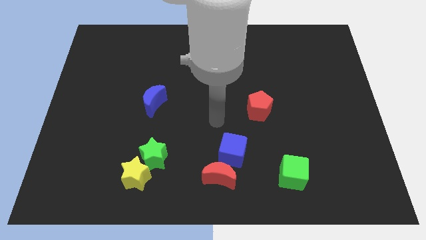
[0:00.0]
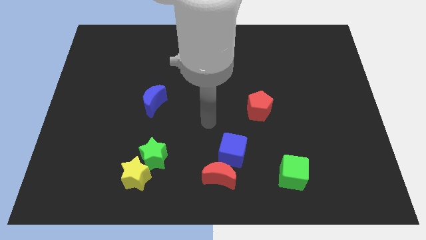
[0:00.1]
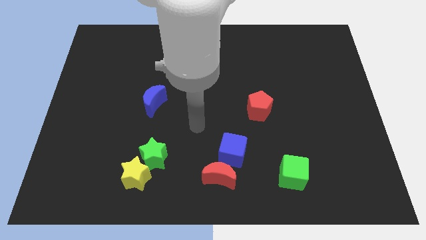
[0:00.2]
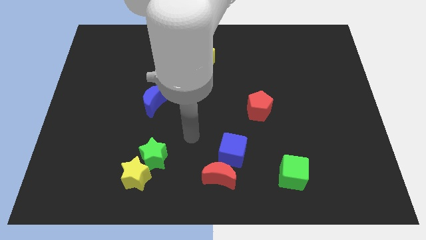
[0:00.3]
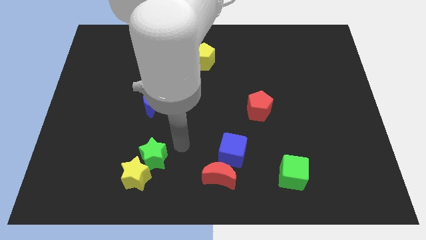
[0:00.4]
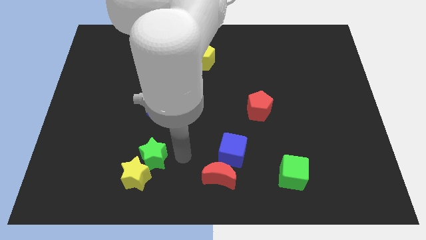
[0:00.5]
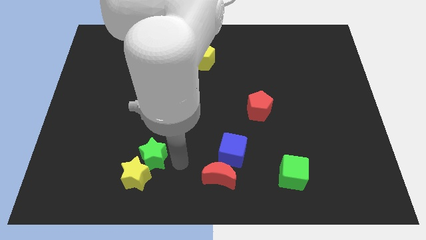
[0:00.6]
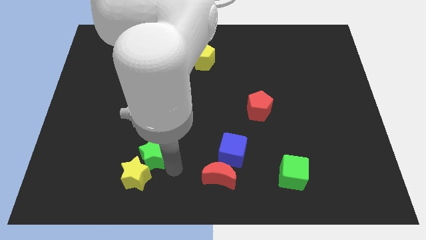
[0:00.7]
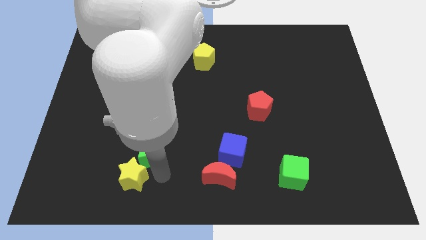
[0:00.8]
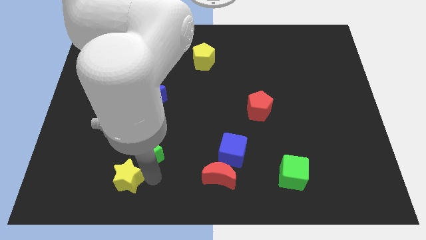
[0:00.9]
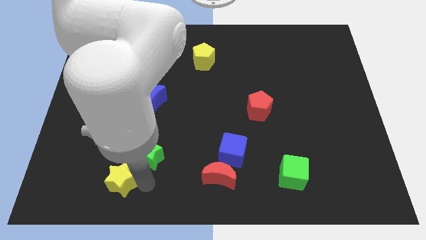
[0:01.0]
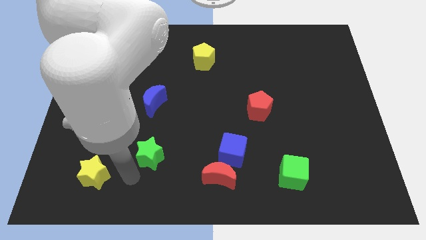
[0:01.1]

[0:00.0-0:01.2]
pull the green star apart from the yellow star

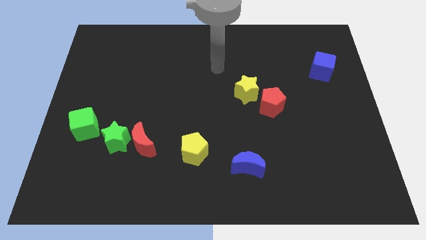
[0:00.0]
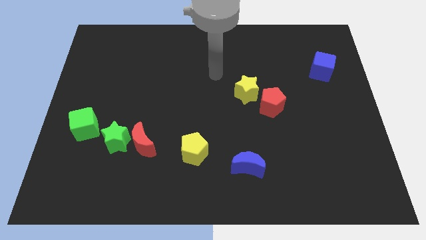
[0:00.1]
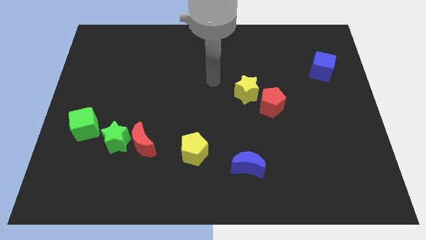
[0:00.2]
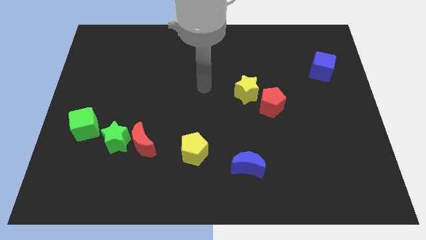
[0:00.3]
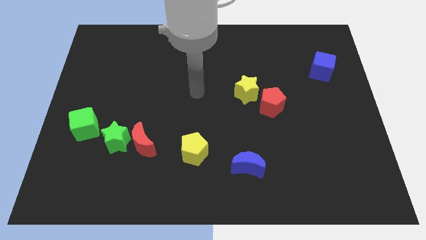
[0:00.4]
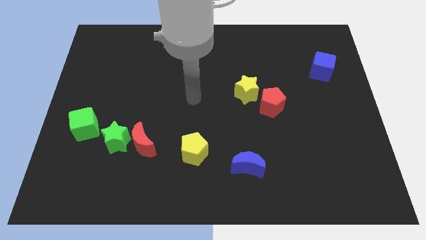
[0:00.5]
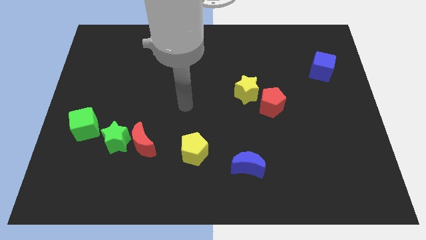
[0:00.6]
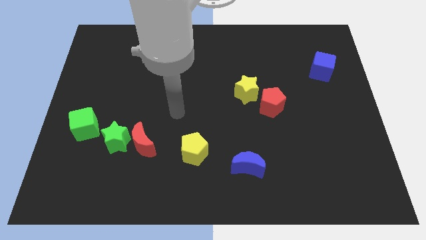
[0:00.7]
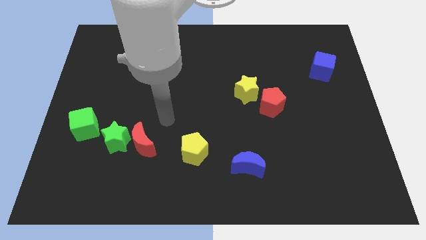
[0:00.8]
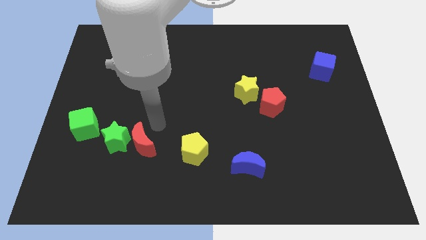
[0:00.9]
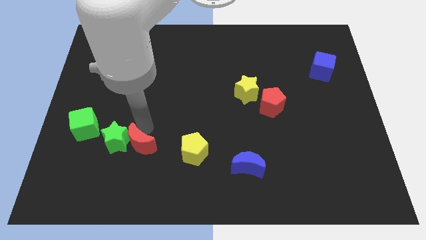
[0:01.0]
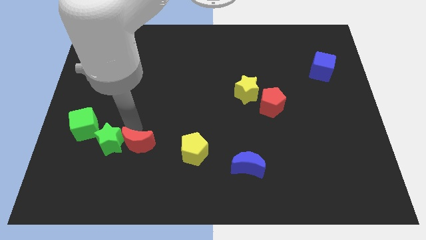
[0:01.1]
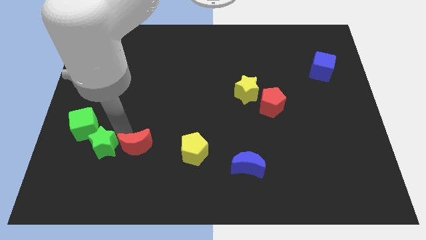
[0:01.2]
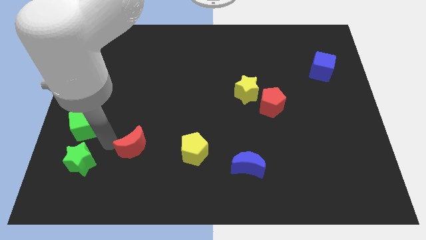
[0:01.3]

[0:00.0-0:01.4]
separate the red moon from the green star

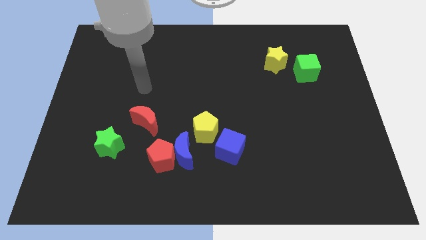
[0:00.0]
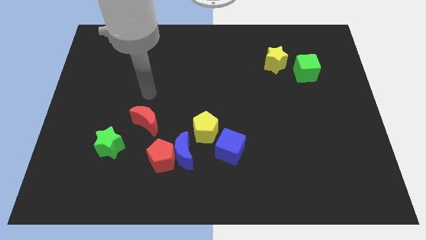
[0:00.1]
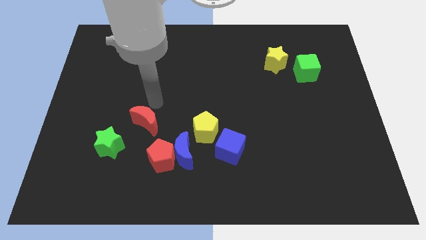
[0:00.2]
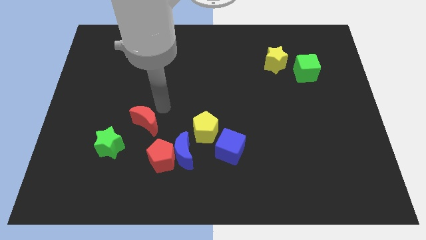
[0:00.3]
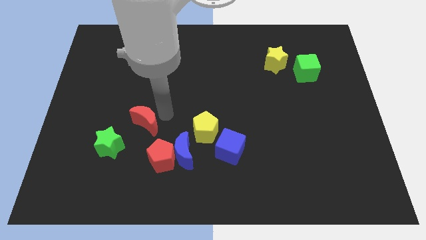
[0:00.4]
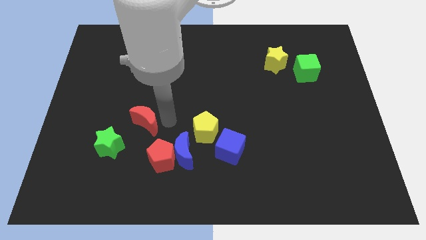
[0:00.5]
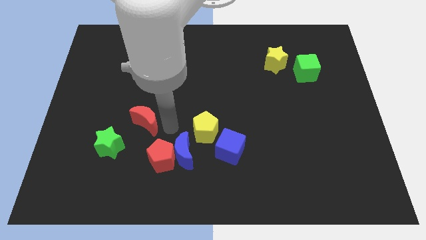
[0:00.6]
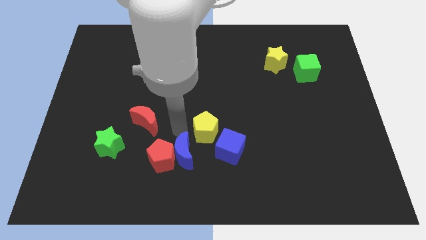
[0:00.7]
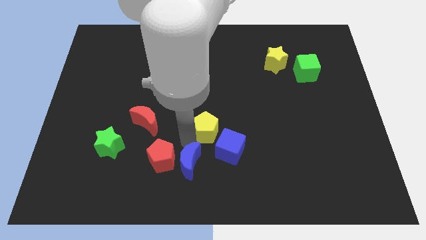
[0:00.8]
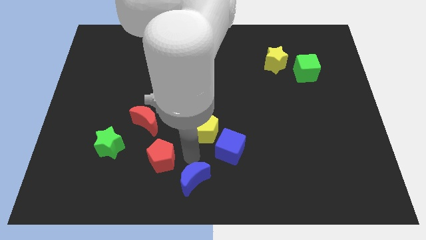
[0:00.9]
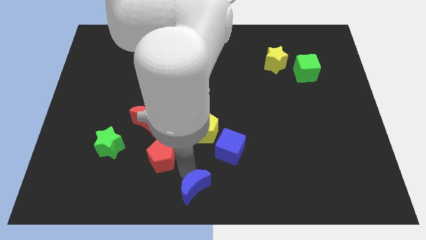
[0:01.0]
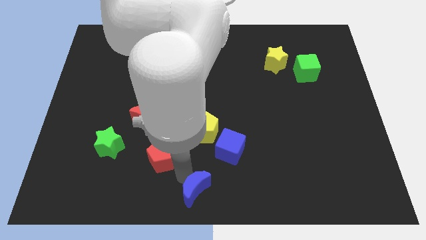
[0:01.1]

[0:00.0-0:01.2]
separate the red pentagon from the blue moon

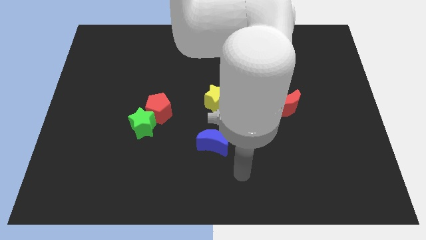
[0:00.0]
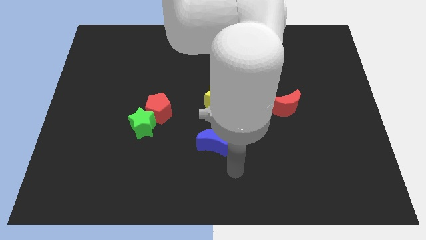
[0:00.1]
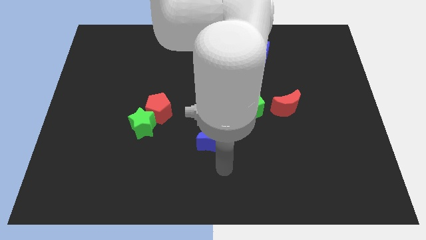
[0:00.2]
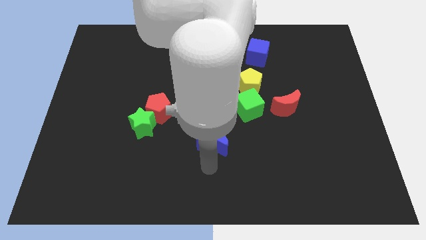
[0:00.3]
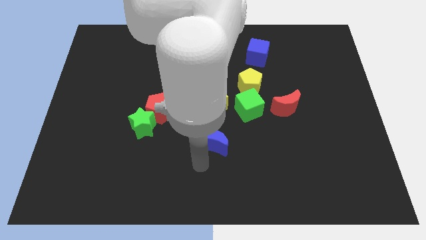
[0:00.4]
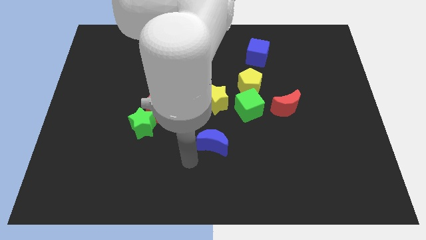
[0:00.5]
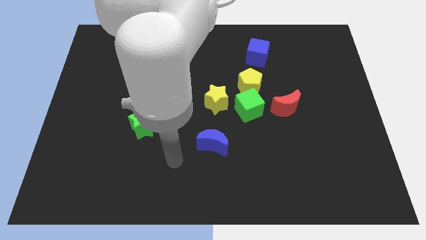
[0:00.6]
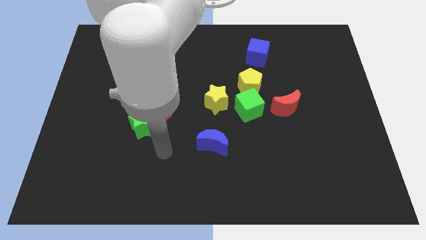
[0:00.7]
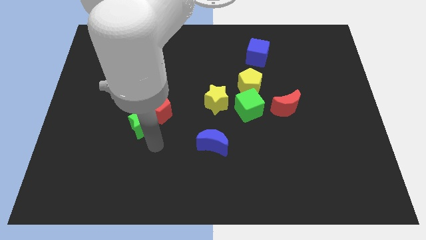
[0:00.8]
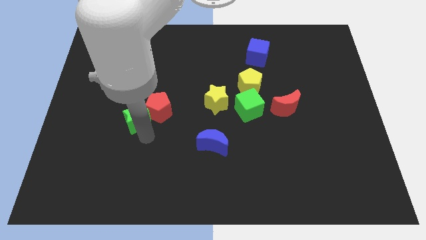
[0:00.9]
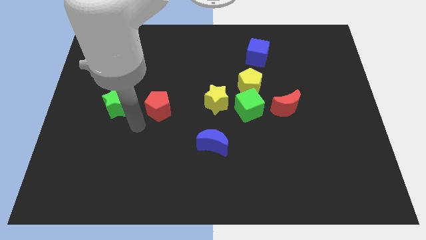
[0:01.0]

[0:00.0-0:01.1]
pull the red pentagon apart from the green star

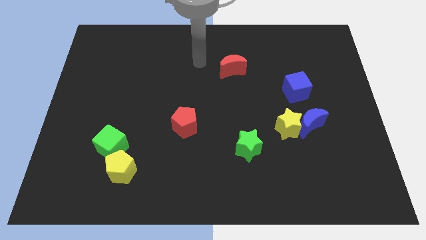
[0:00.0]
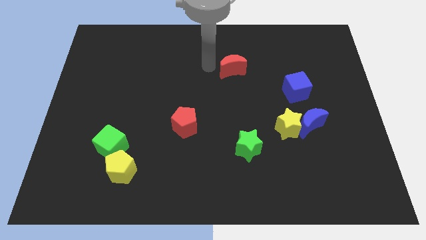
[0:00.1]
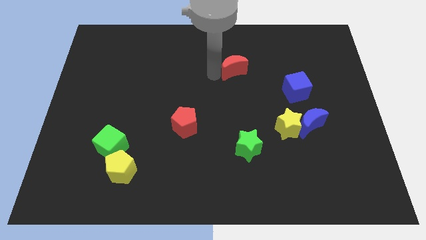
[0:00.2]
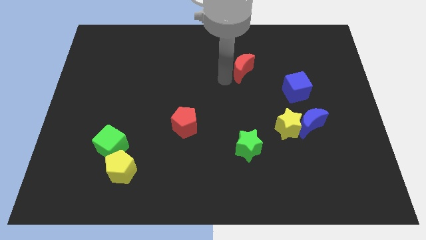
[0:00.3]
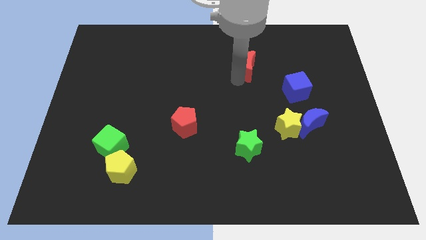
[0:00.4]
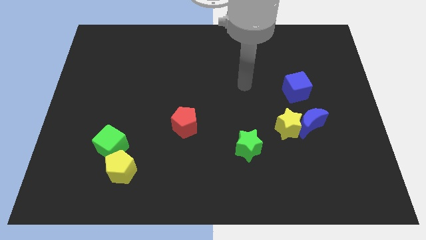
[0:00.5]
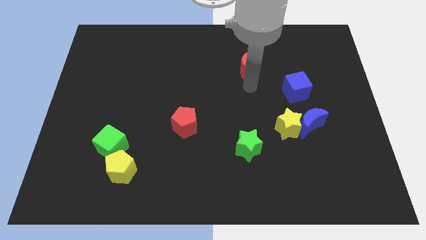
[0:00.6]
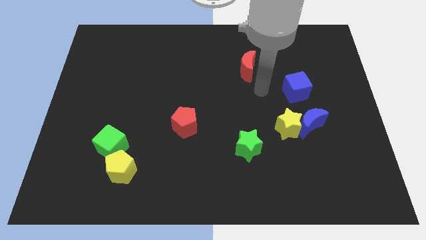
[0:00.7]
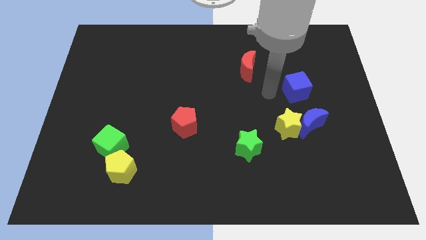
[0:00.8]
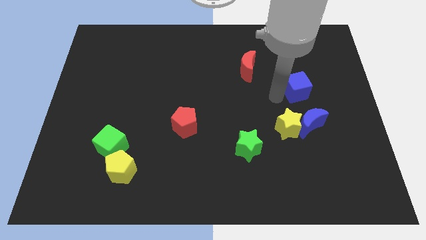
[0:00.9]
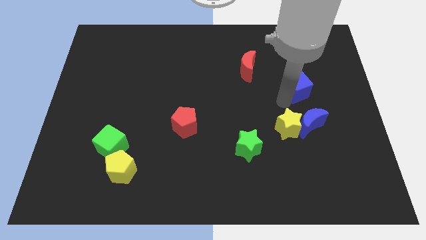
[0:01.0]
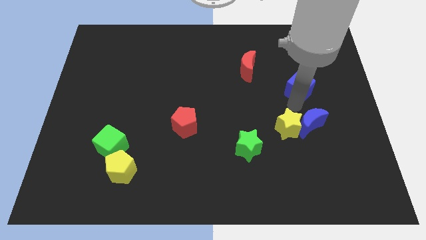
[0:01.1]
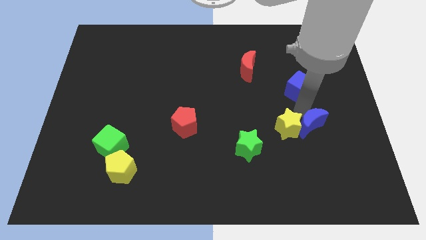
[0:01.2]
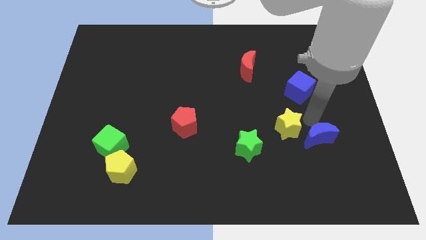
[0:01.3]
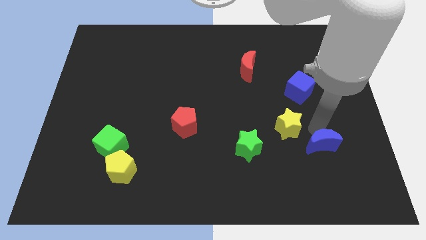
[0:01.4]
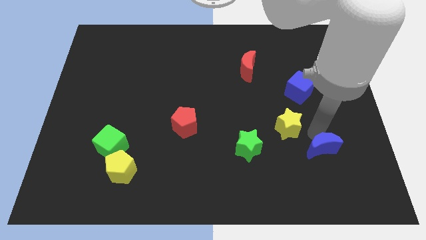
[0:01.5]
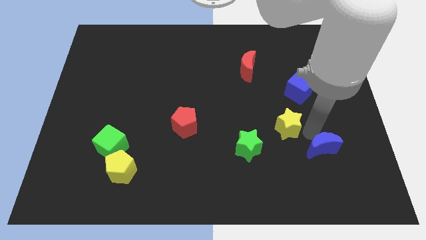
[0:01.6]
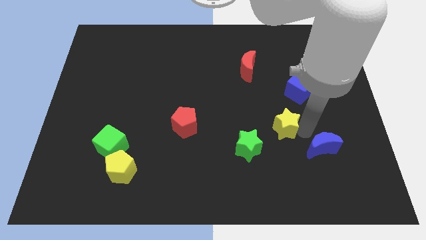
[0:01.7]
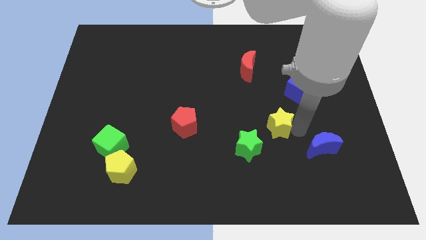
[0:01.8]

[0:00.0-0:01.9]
move the yellow star away from the blue moon

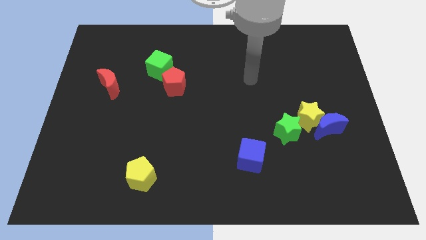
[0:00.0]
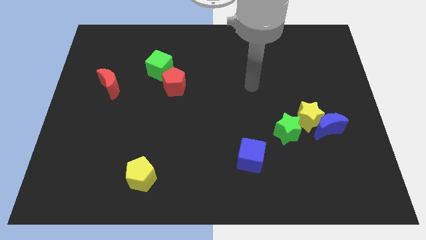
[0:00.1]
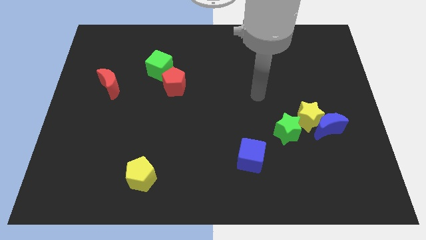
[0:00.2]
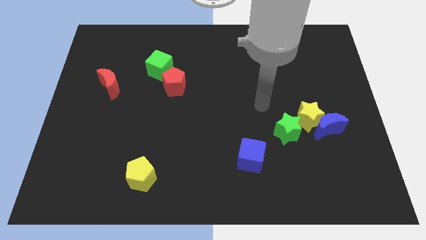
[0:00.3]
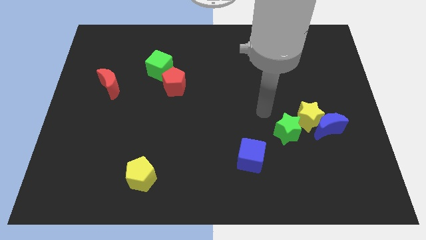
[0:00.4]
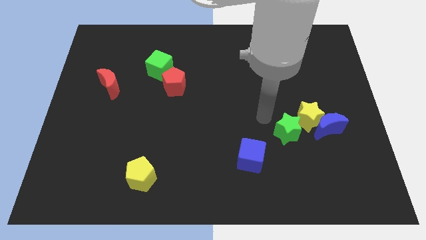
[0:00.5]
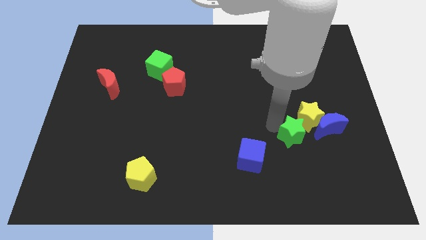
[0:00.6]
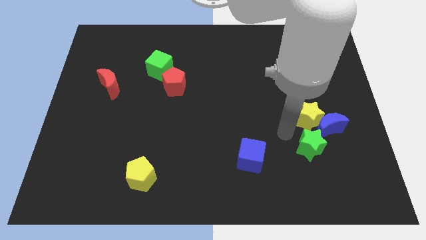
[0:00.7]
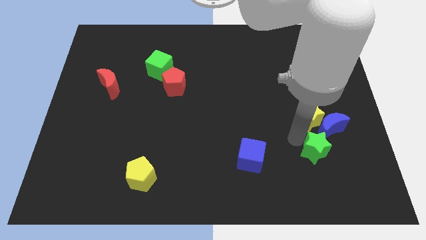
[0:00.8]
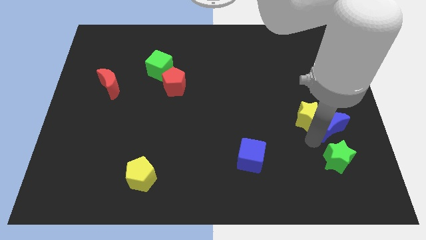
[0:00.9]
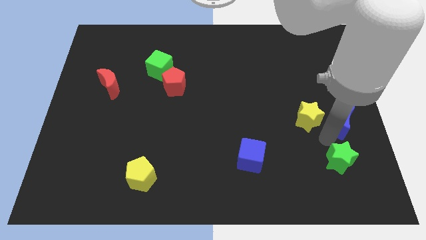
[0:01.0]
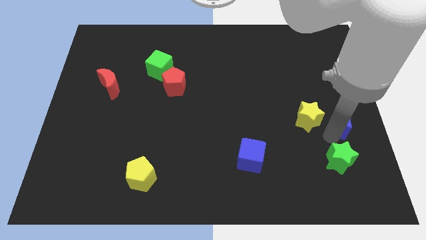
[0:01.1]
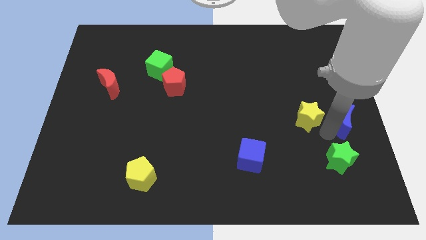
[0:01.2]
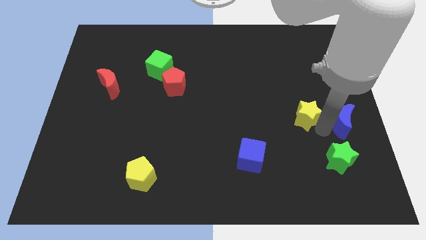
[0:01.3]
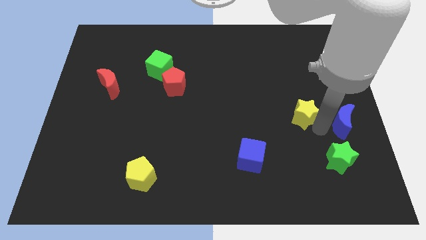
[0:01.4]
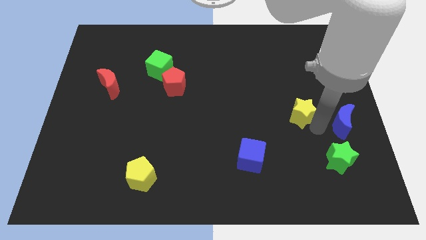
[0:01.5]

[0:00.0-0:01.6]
pull the yellow star apart from the blue moon and green star

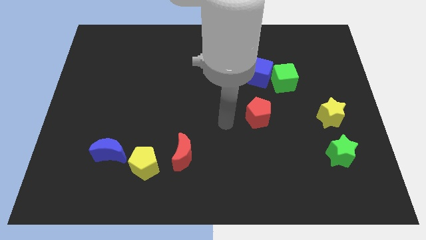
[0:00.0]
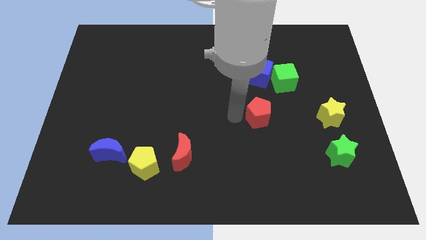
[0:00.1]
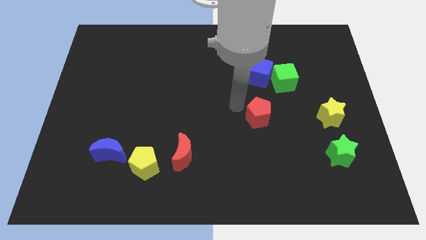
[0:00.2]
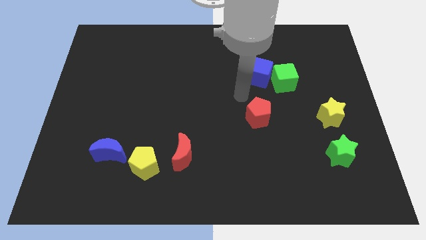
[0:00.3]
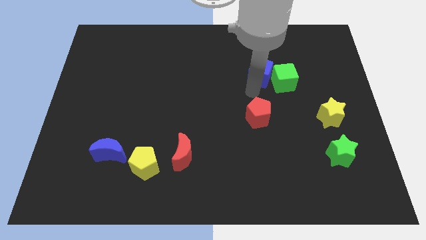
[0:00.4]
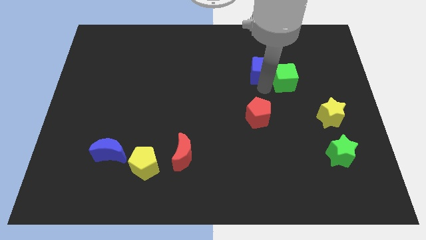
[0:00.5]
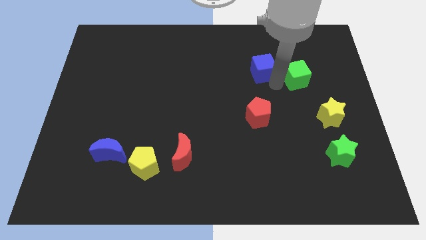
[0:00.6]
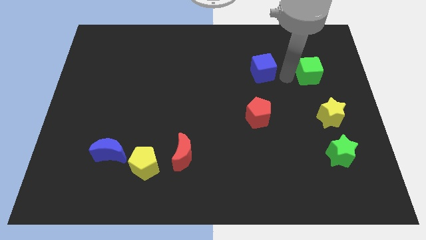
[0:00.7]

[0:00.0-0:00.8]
move the blue cube away from the green cube
